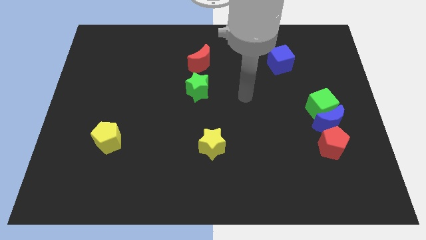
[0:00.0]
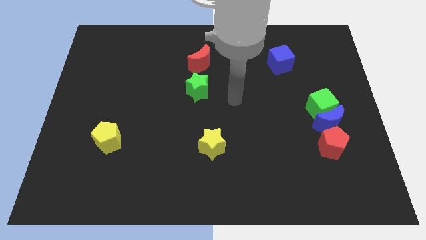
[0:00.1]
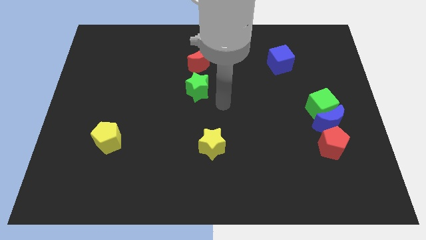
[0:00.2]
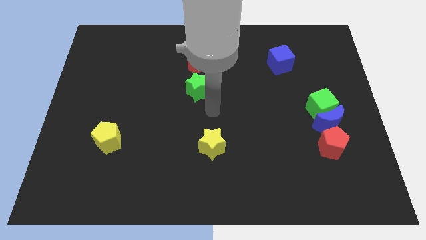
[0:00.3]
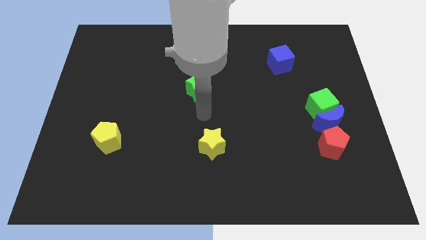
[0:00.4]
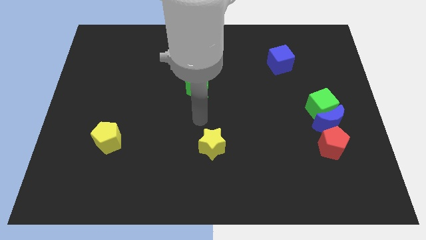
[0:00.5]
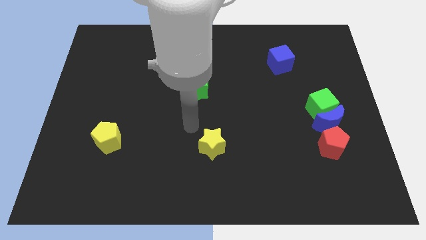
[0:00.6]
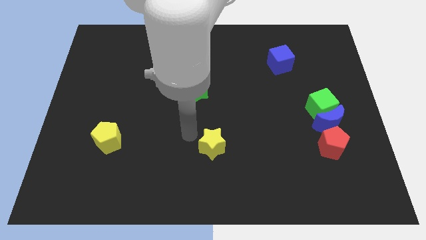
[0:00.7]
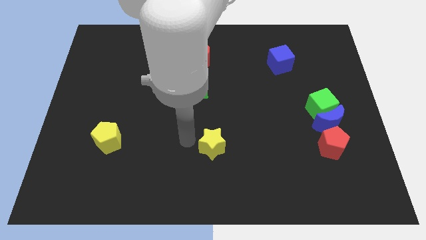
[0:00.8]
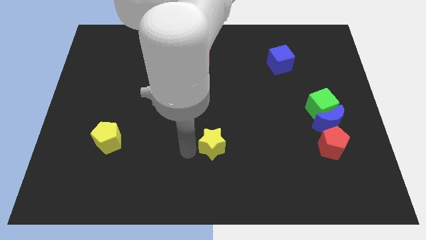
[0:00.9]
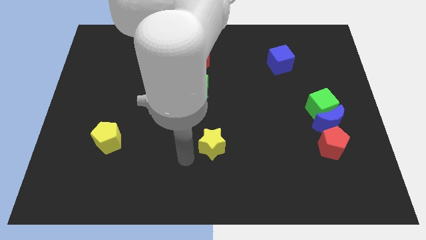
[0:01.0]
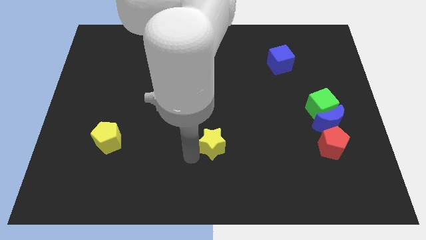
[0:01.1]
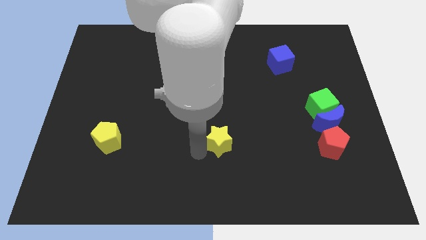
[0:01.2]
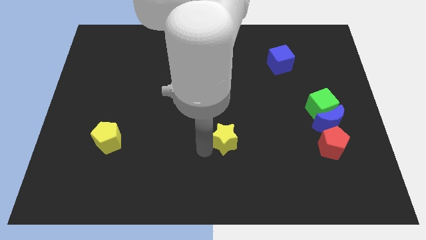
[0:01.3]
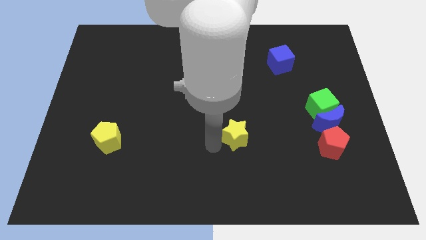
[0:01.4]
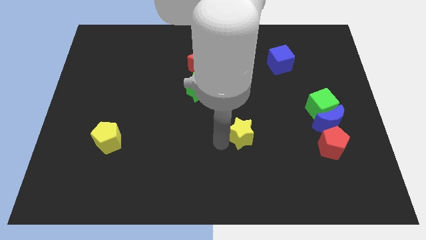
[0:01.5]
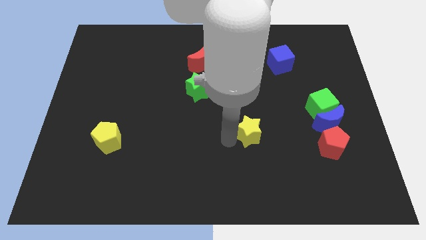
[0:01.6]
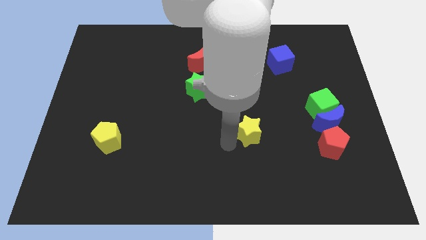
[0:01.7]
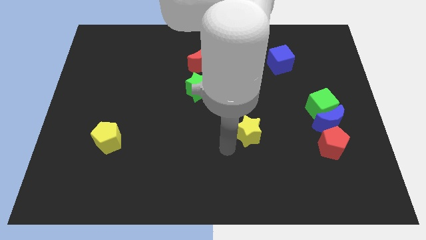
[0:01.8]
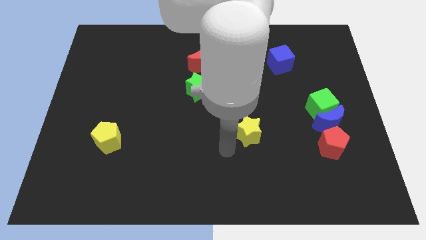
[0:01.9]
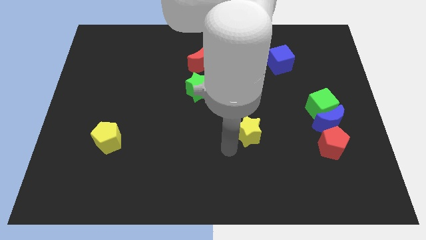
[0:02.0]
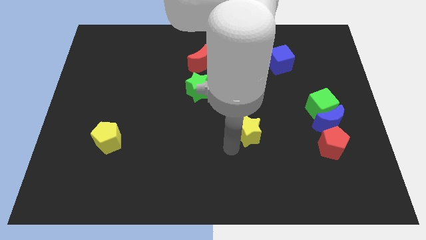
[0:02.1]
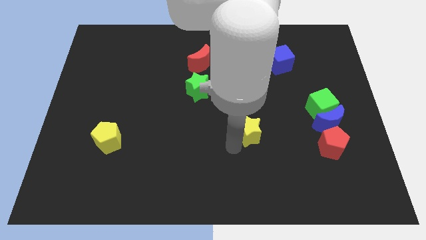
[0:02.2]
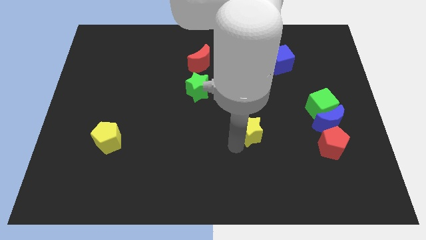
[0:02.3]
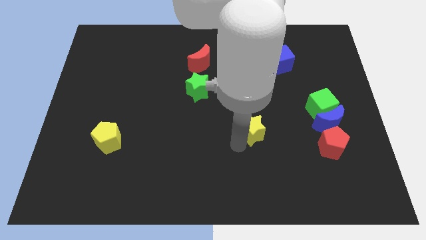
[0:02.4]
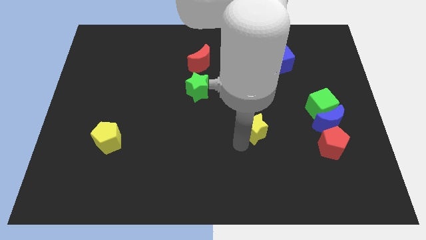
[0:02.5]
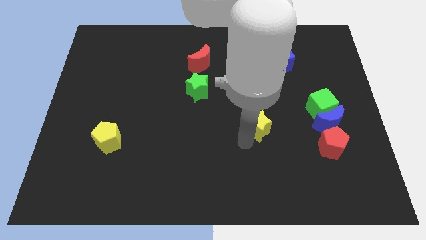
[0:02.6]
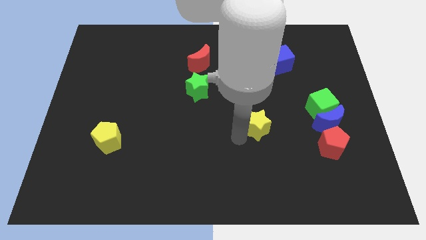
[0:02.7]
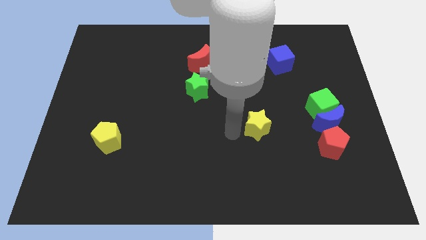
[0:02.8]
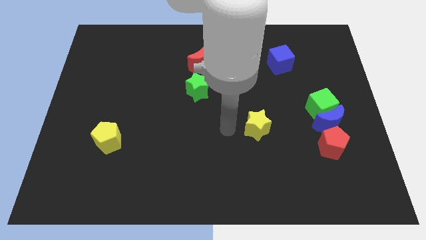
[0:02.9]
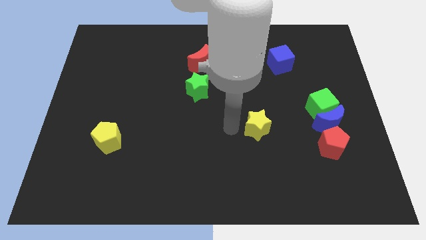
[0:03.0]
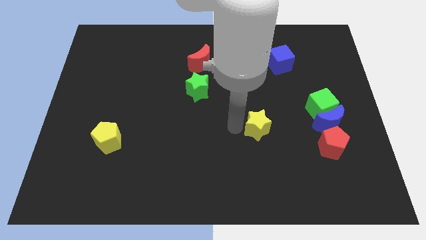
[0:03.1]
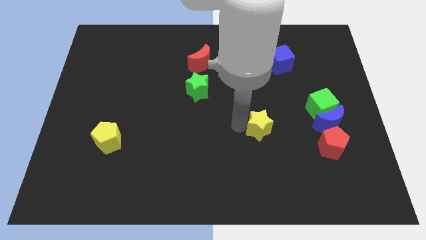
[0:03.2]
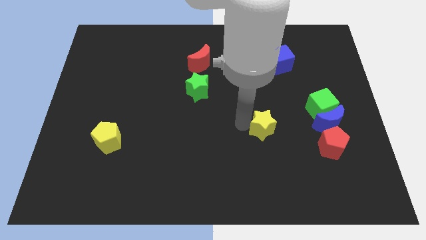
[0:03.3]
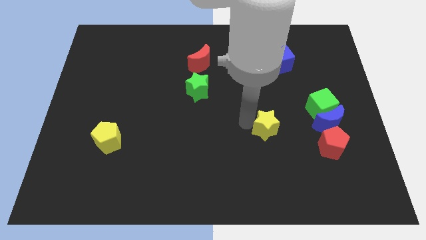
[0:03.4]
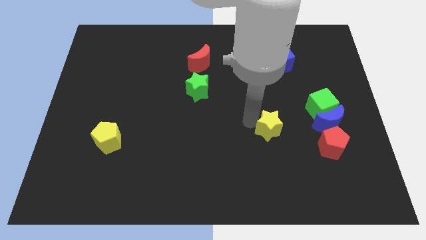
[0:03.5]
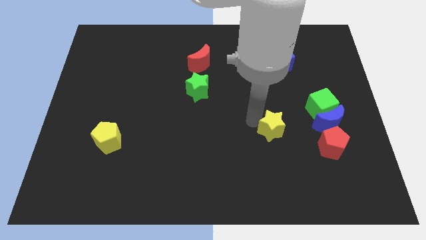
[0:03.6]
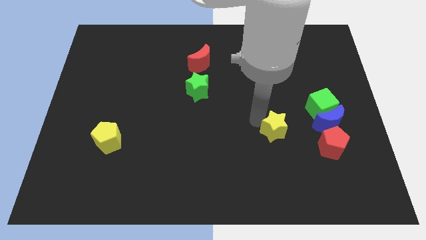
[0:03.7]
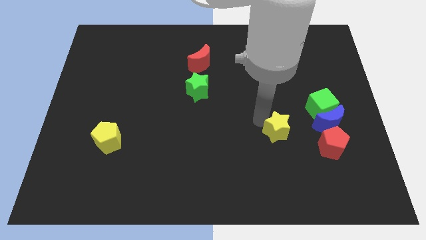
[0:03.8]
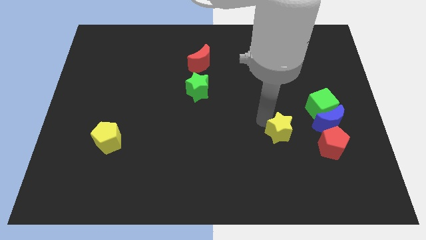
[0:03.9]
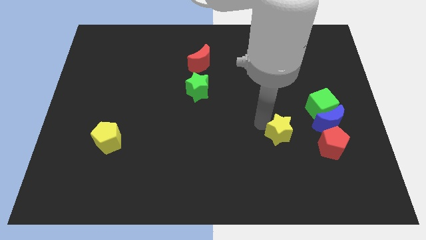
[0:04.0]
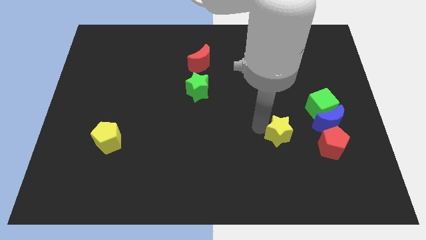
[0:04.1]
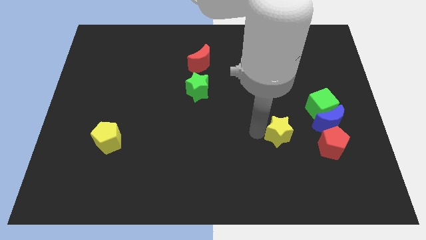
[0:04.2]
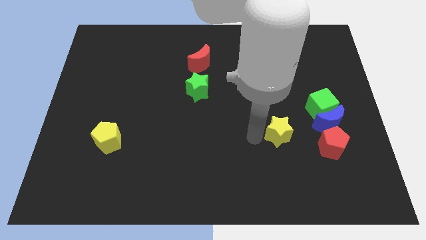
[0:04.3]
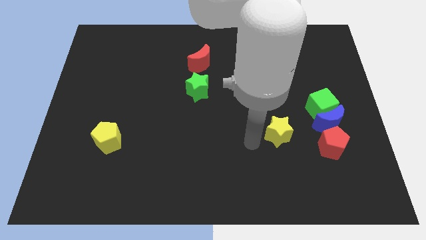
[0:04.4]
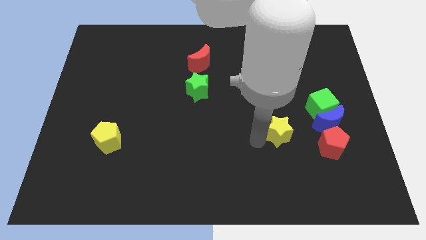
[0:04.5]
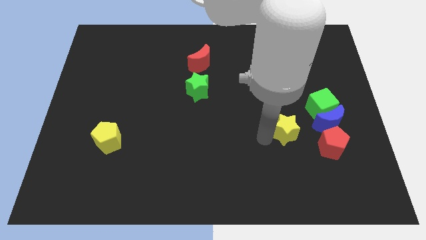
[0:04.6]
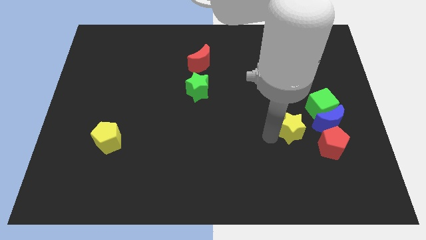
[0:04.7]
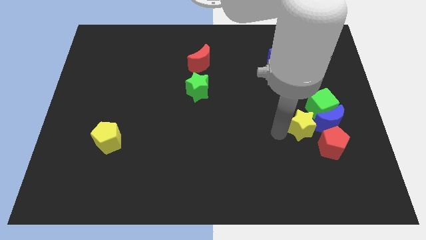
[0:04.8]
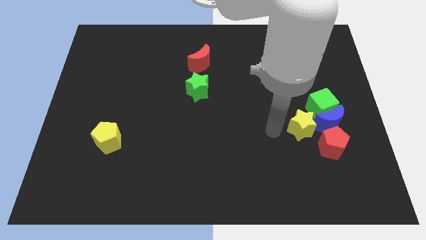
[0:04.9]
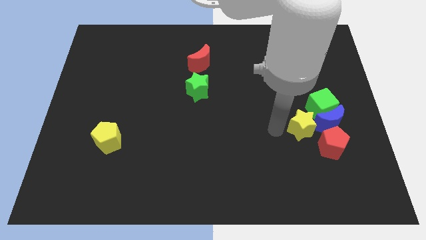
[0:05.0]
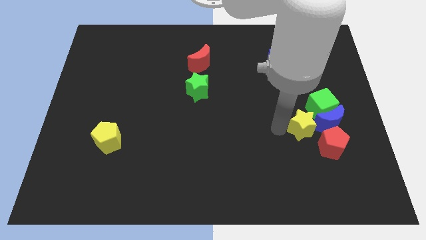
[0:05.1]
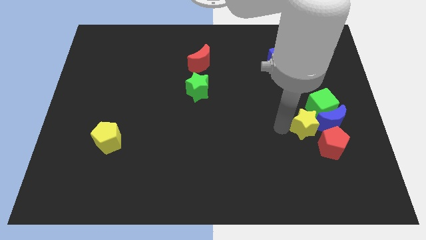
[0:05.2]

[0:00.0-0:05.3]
move the yellow star towards the blue moon

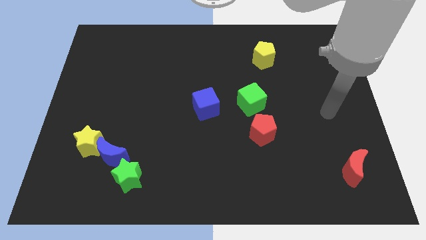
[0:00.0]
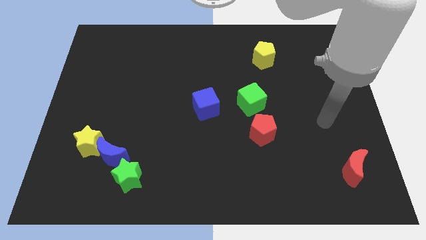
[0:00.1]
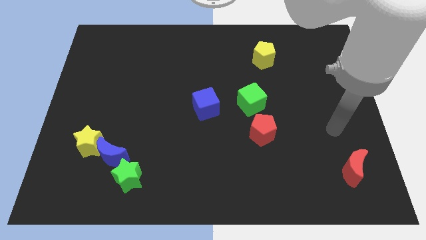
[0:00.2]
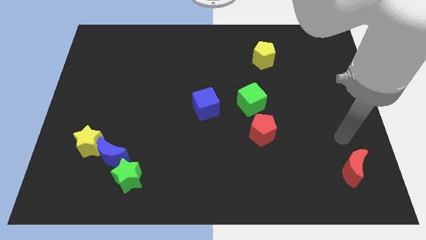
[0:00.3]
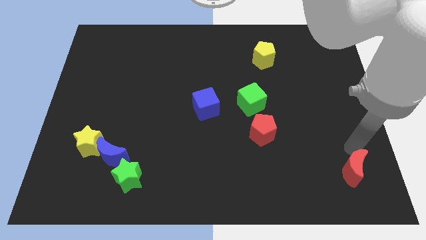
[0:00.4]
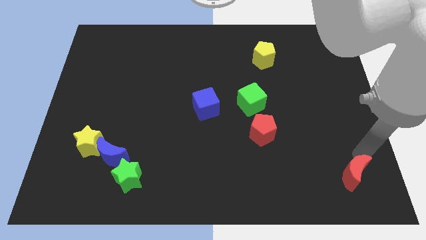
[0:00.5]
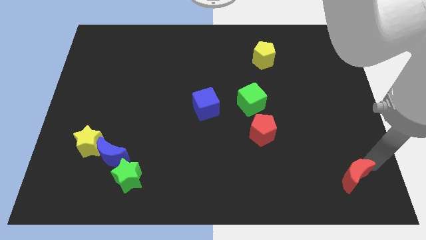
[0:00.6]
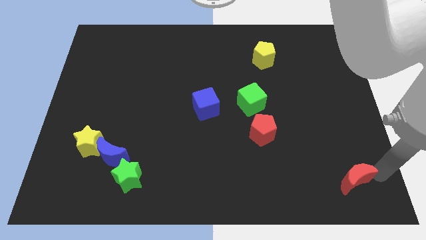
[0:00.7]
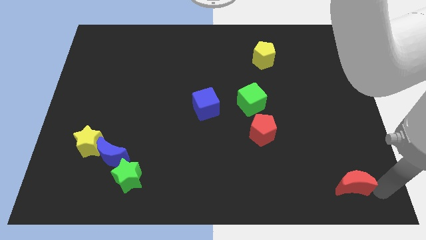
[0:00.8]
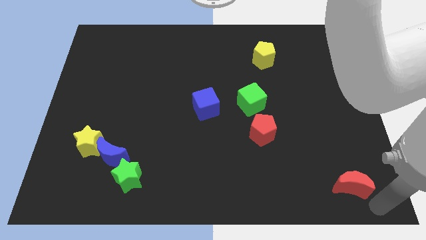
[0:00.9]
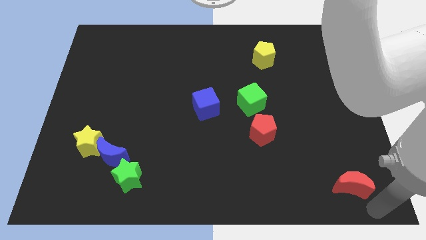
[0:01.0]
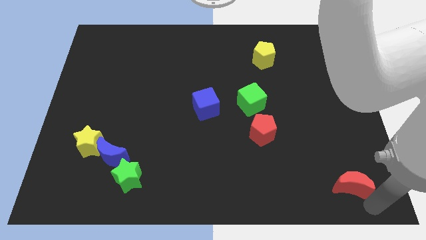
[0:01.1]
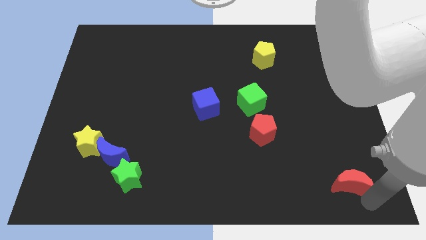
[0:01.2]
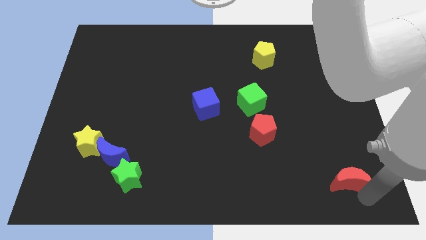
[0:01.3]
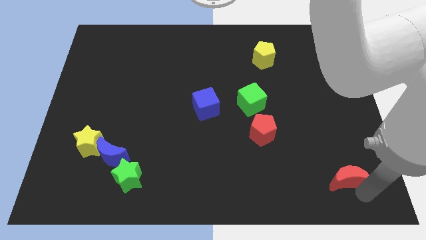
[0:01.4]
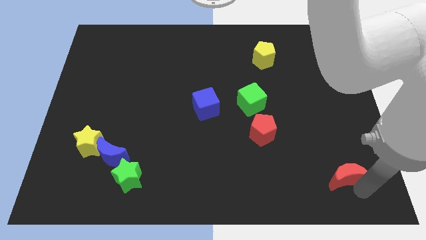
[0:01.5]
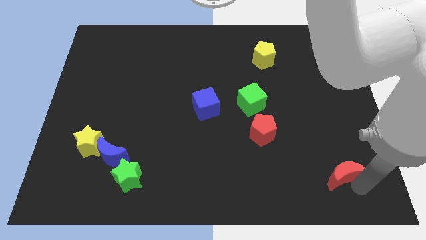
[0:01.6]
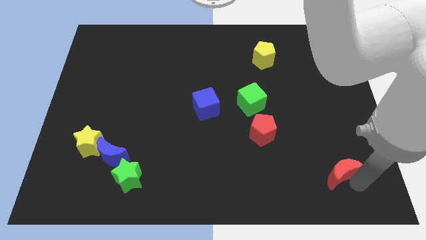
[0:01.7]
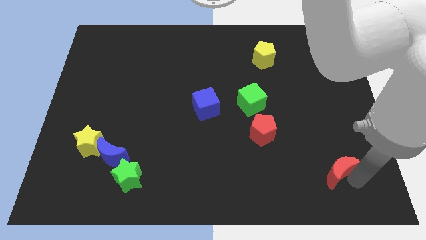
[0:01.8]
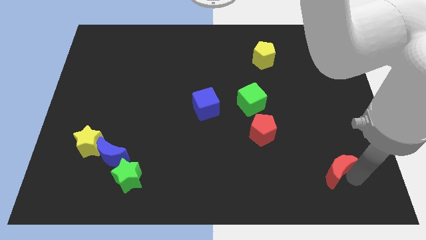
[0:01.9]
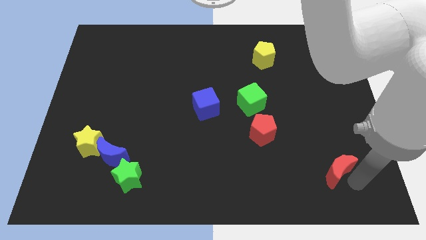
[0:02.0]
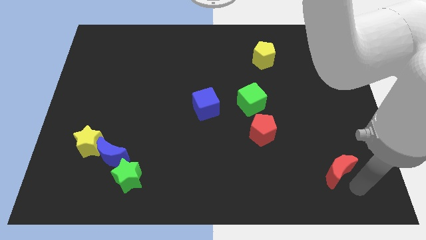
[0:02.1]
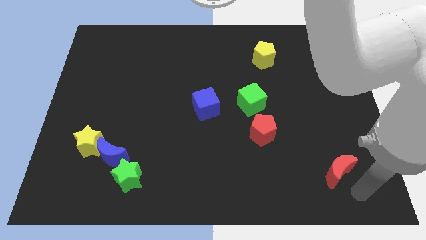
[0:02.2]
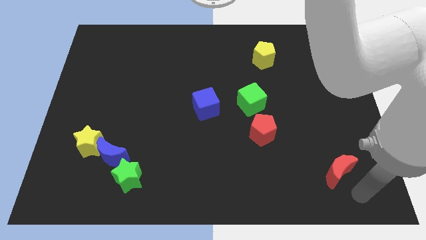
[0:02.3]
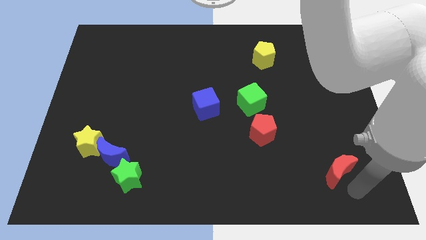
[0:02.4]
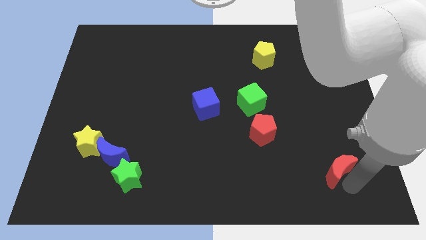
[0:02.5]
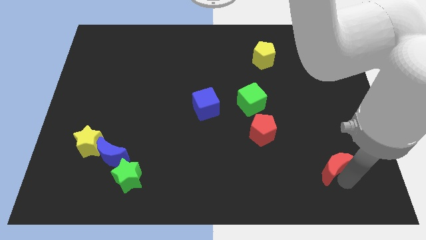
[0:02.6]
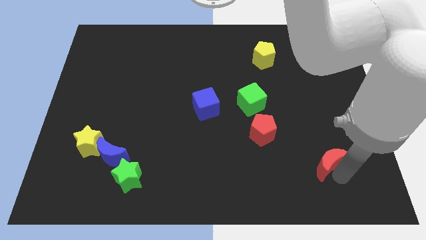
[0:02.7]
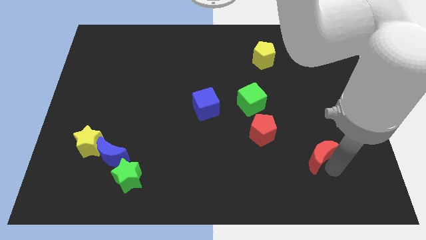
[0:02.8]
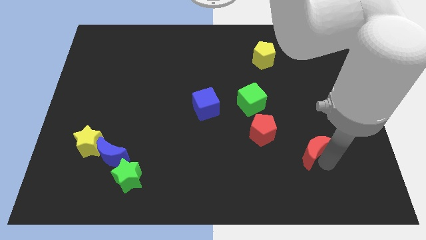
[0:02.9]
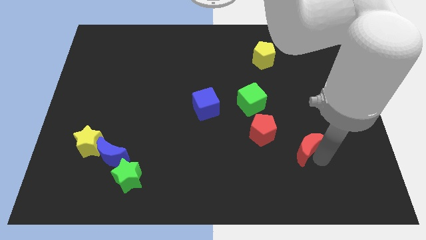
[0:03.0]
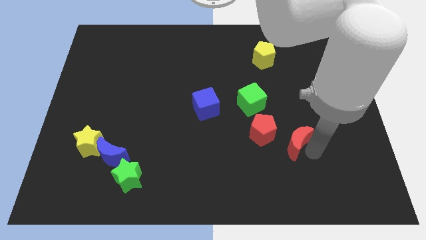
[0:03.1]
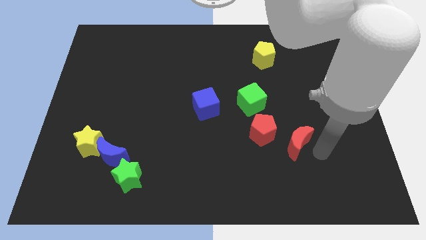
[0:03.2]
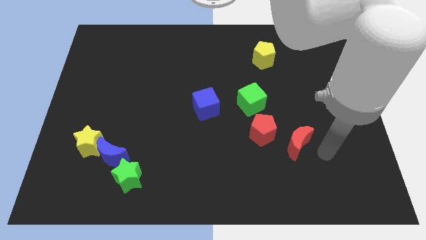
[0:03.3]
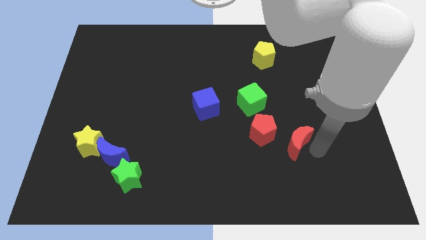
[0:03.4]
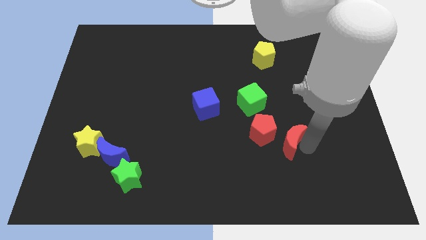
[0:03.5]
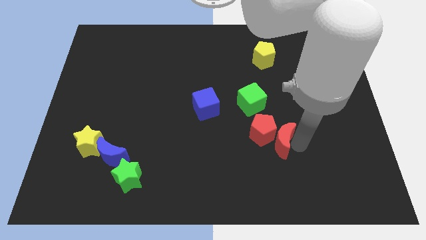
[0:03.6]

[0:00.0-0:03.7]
push the red moon to the red pentagon
